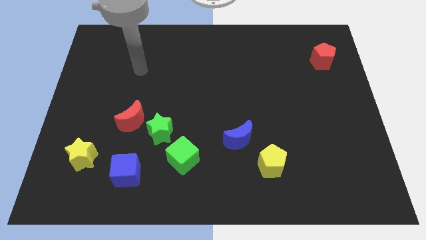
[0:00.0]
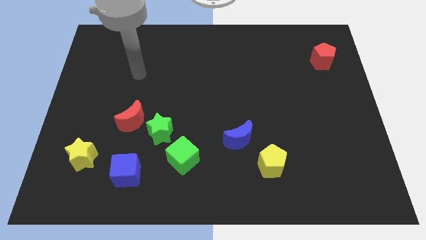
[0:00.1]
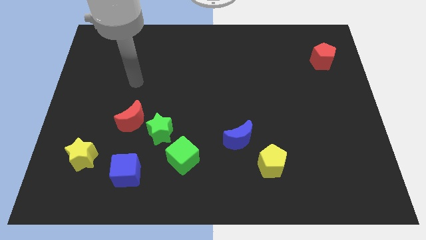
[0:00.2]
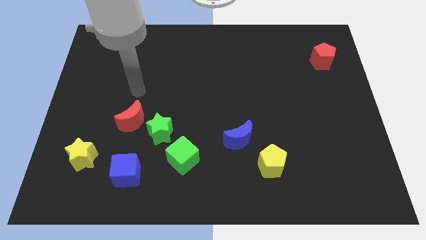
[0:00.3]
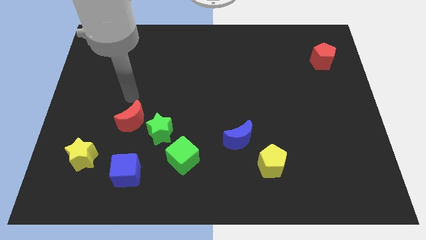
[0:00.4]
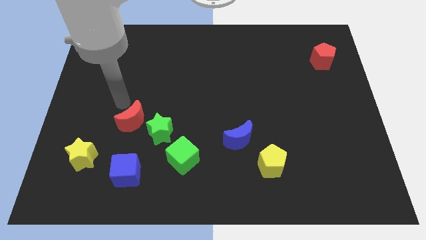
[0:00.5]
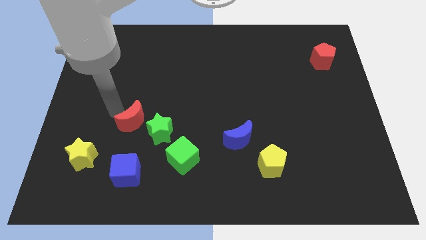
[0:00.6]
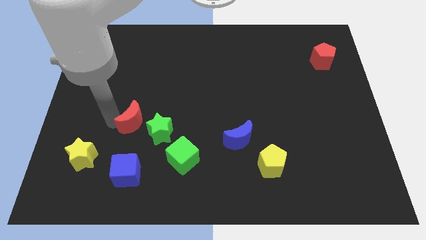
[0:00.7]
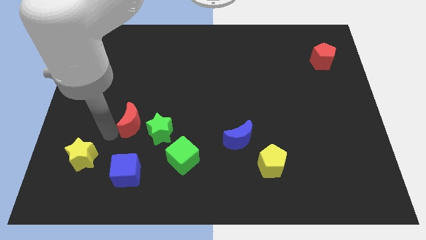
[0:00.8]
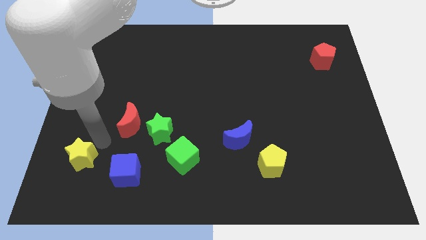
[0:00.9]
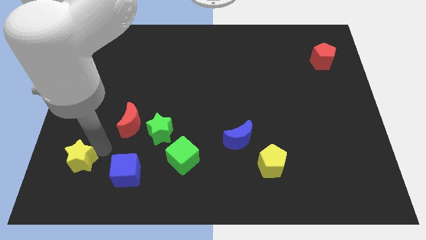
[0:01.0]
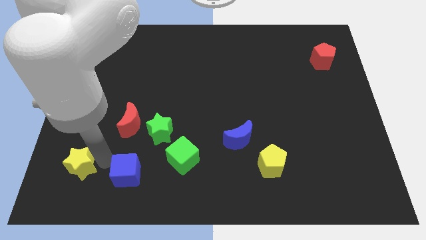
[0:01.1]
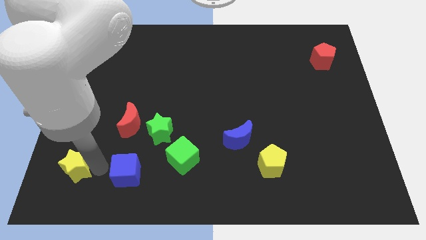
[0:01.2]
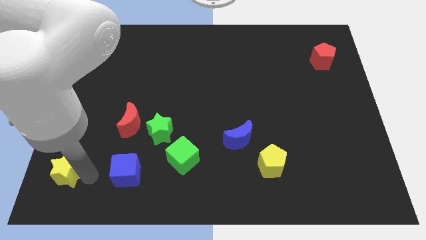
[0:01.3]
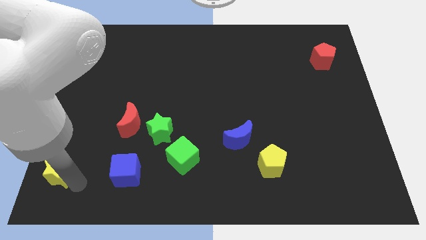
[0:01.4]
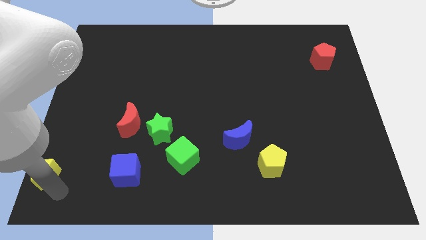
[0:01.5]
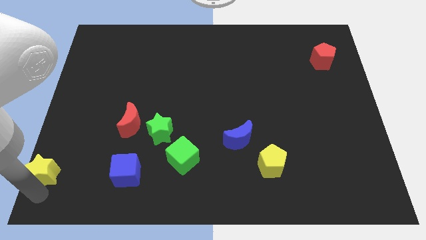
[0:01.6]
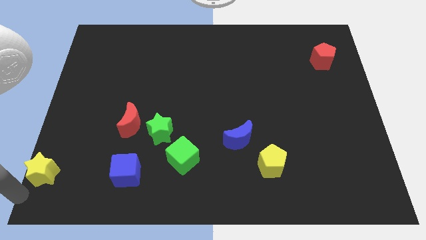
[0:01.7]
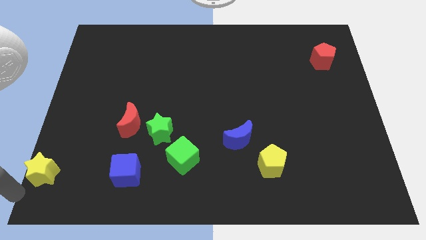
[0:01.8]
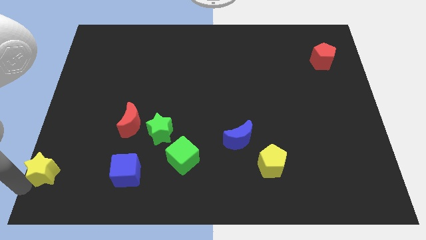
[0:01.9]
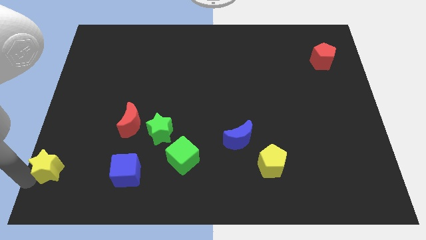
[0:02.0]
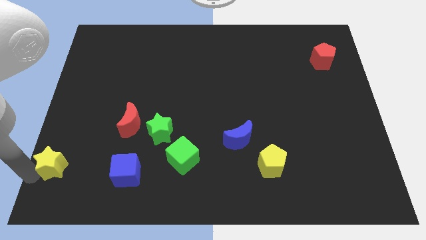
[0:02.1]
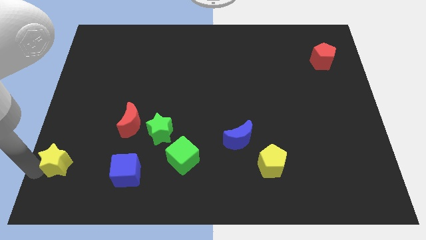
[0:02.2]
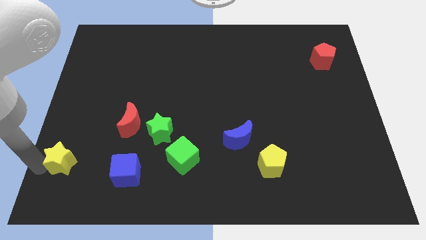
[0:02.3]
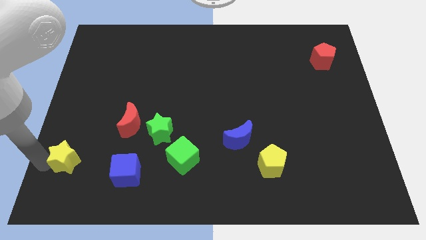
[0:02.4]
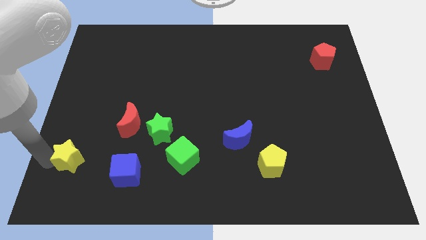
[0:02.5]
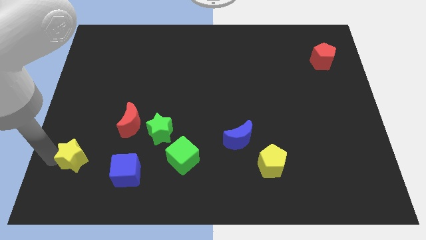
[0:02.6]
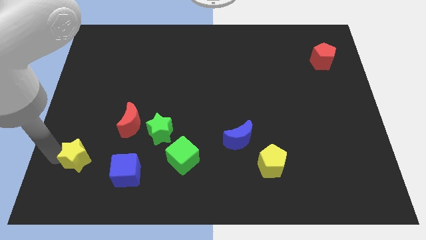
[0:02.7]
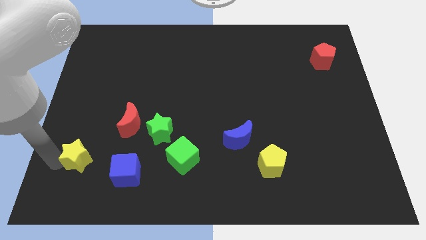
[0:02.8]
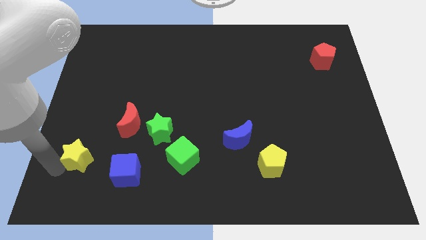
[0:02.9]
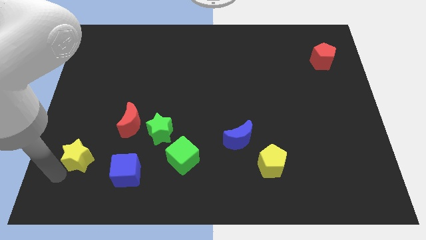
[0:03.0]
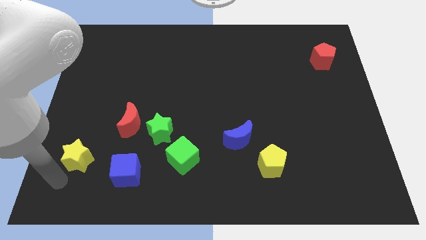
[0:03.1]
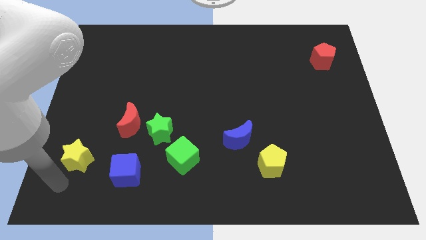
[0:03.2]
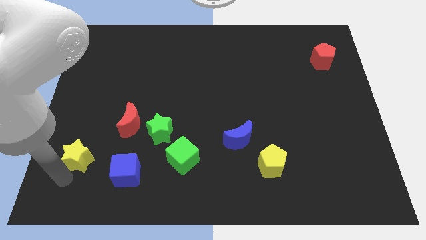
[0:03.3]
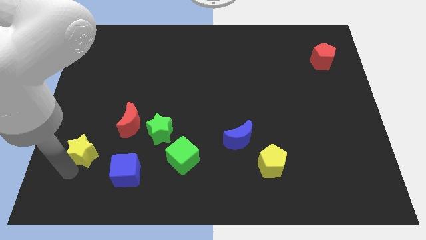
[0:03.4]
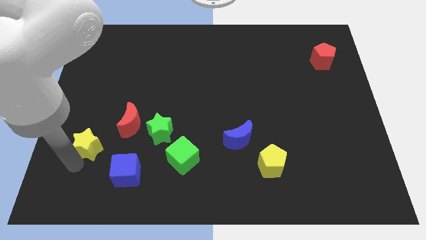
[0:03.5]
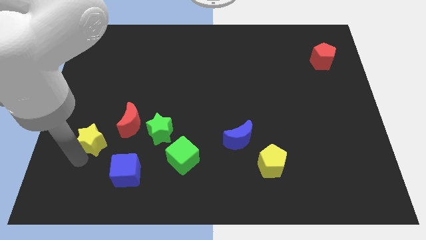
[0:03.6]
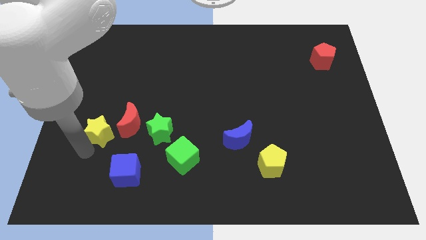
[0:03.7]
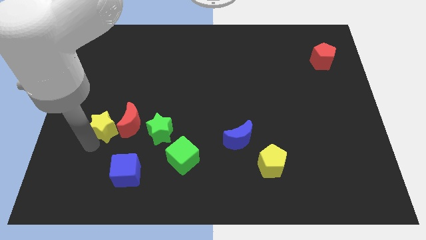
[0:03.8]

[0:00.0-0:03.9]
slightly push the yellow star diagonally up and to the right

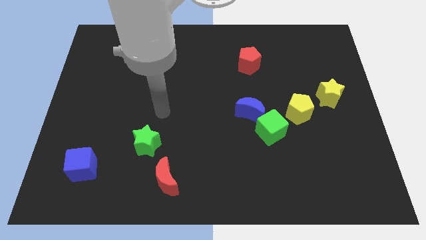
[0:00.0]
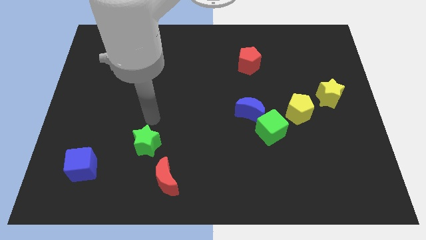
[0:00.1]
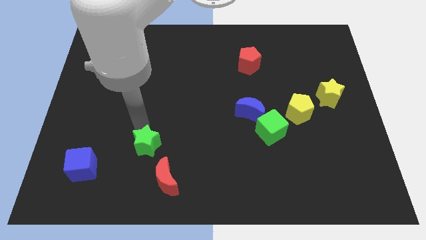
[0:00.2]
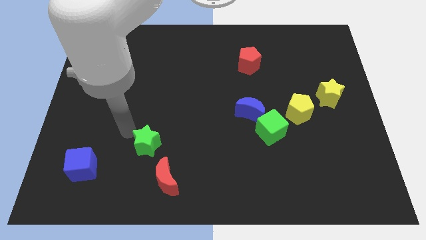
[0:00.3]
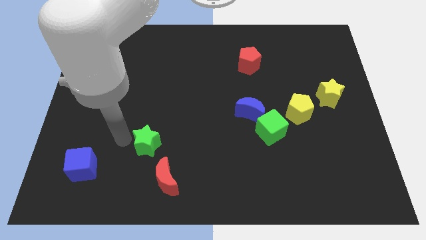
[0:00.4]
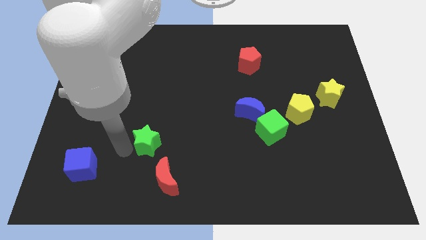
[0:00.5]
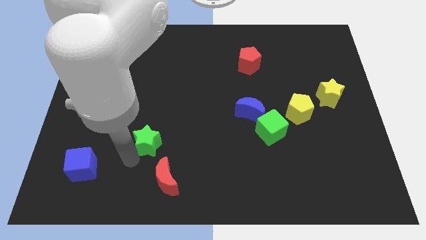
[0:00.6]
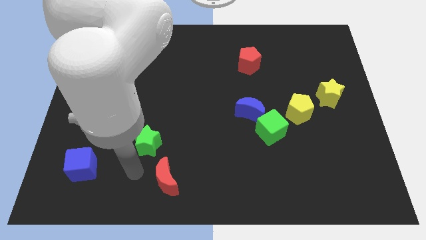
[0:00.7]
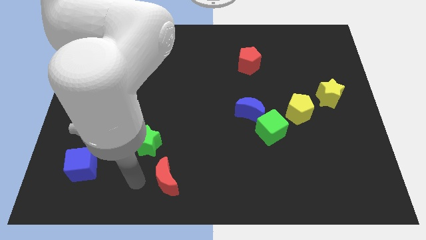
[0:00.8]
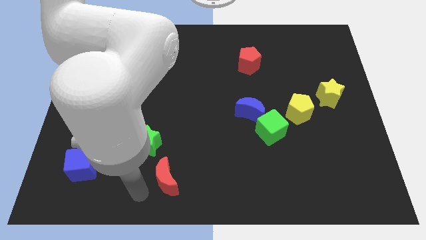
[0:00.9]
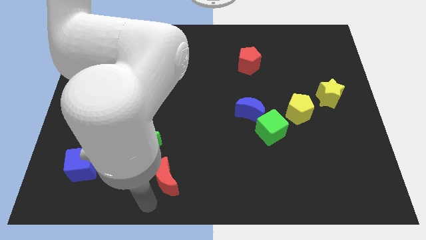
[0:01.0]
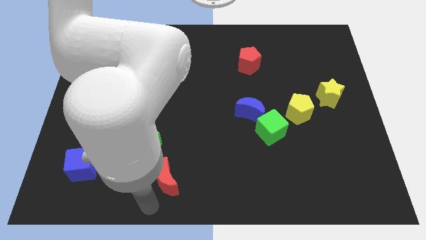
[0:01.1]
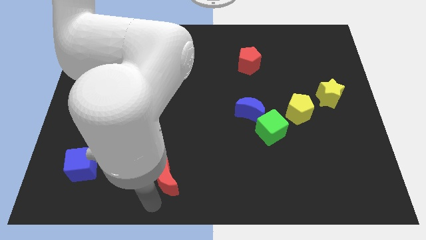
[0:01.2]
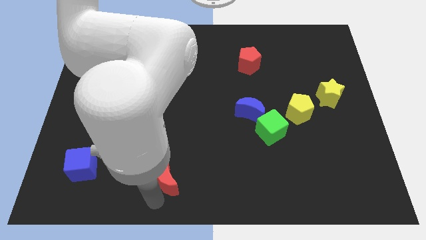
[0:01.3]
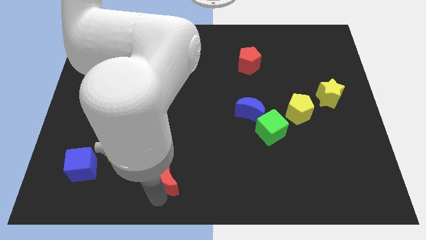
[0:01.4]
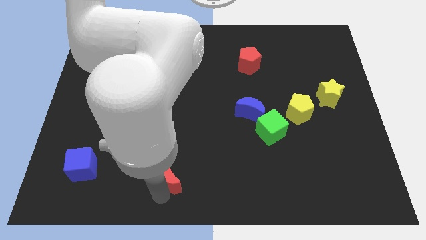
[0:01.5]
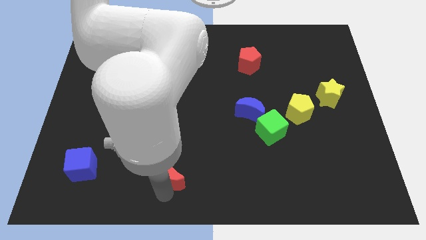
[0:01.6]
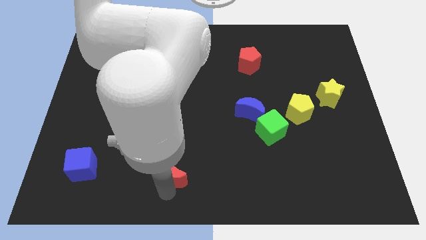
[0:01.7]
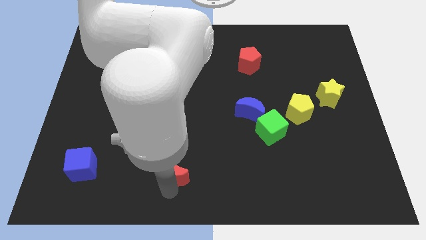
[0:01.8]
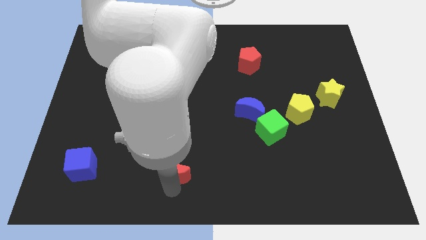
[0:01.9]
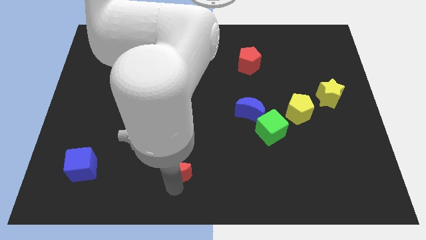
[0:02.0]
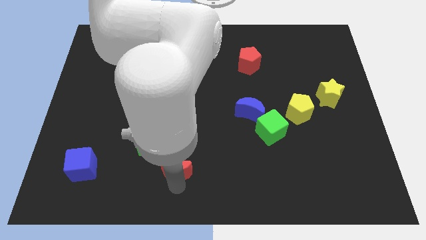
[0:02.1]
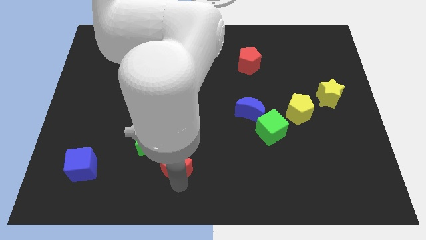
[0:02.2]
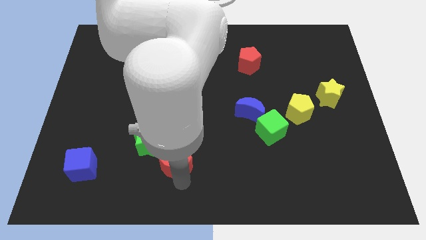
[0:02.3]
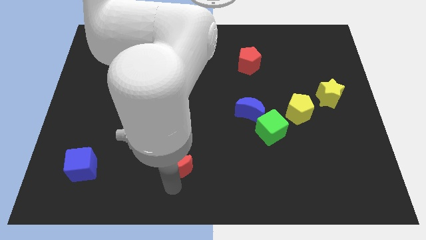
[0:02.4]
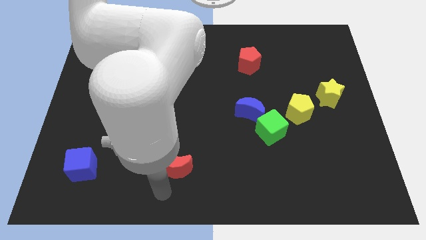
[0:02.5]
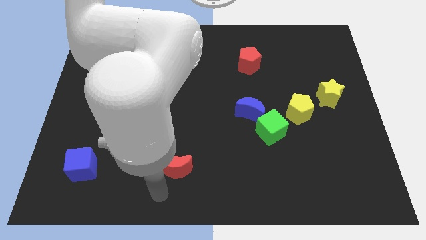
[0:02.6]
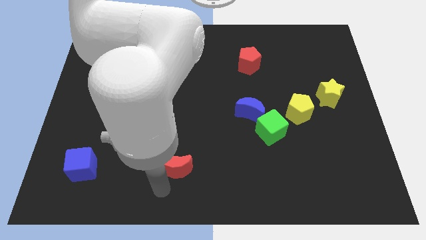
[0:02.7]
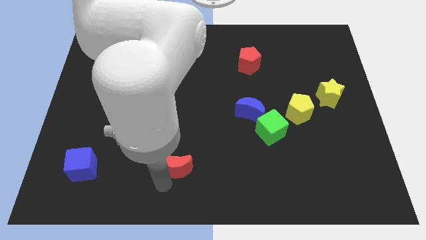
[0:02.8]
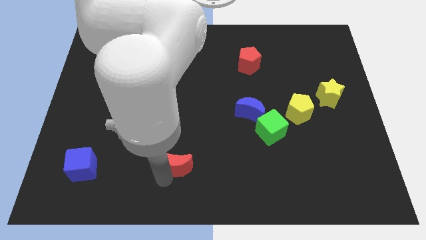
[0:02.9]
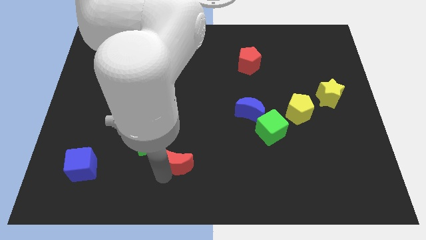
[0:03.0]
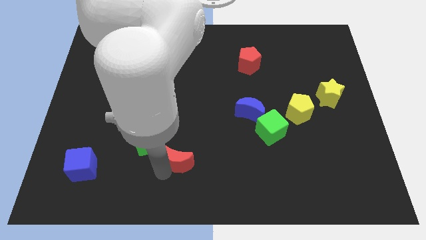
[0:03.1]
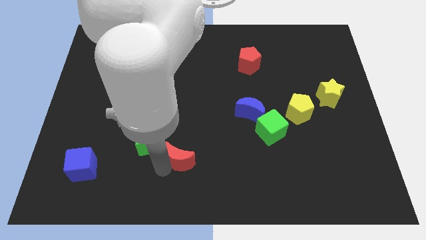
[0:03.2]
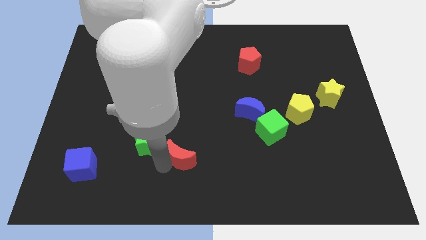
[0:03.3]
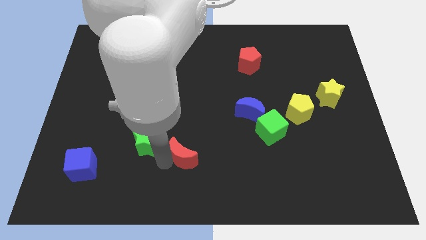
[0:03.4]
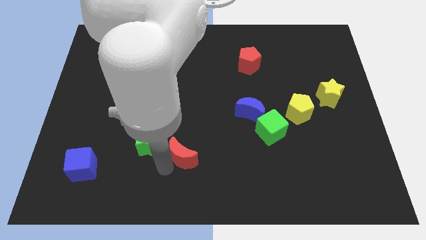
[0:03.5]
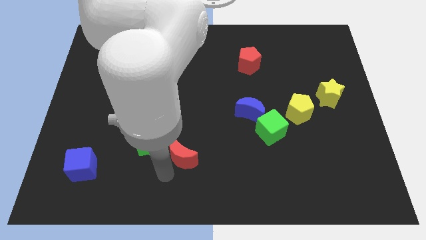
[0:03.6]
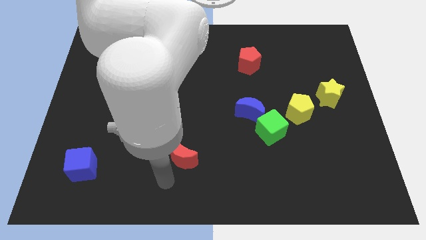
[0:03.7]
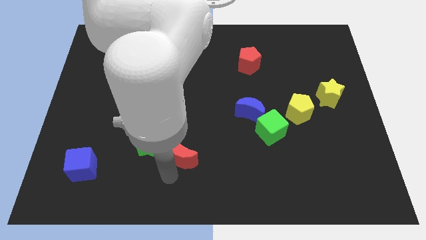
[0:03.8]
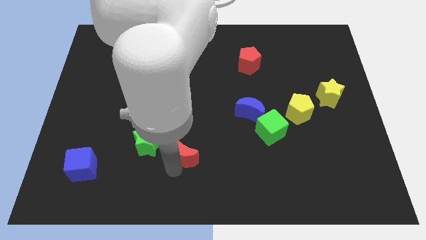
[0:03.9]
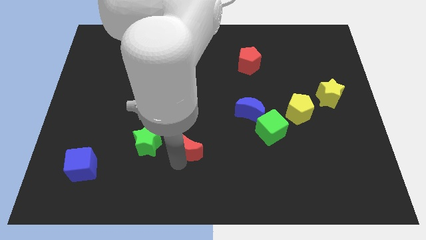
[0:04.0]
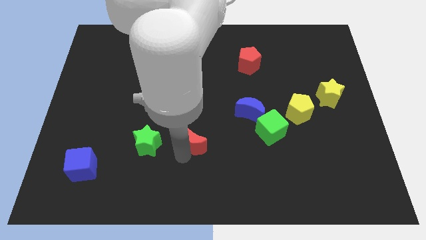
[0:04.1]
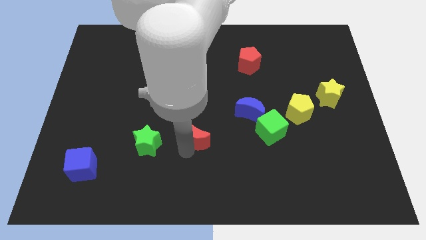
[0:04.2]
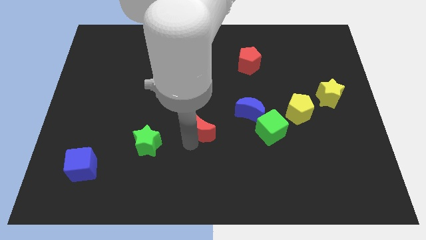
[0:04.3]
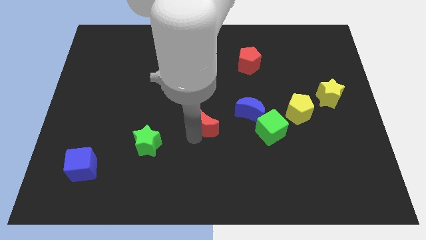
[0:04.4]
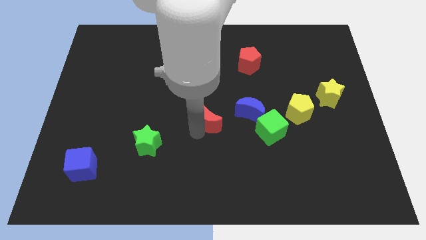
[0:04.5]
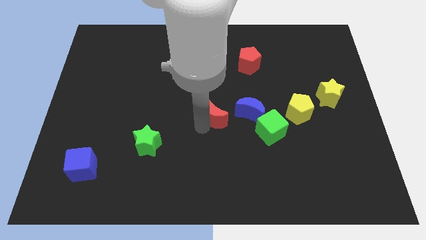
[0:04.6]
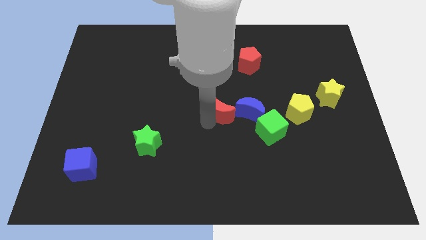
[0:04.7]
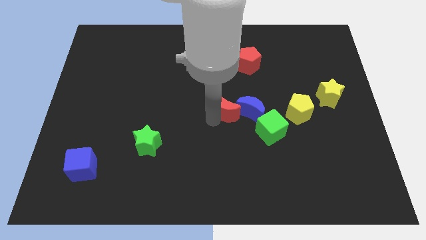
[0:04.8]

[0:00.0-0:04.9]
slide the red moon diagonally up and right
